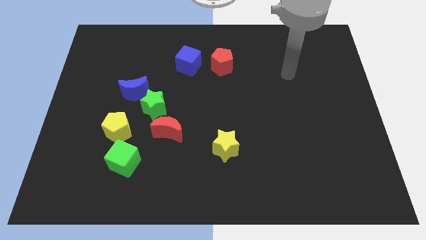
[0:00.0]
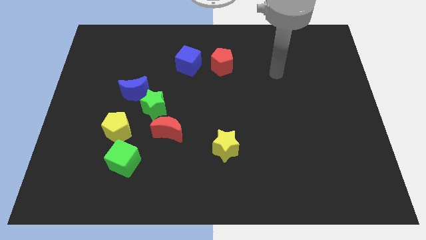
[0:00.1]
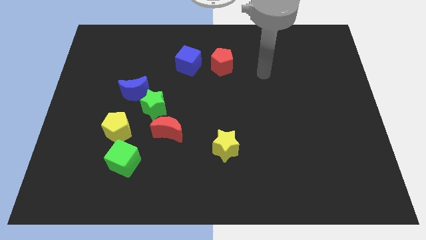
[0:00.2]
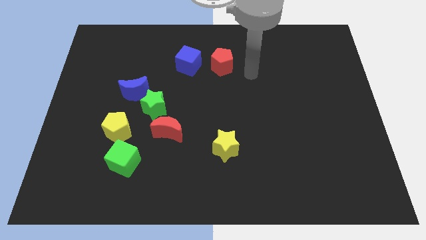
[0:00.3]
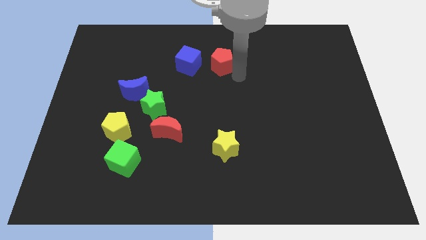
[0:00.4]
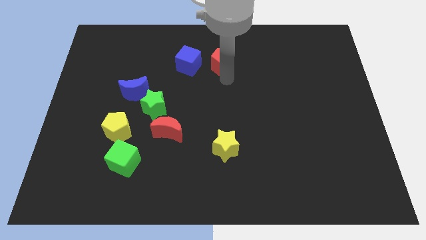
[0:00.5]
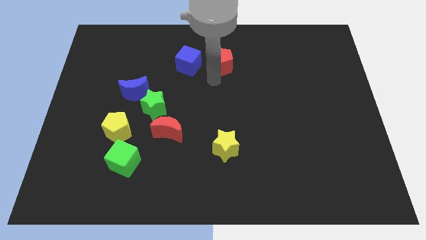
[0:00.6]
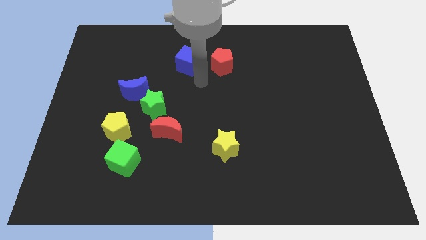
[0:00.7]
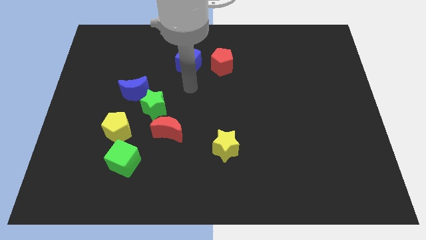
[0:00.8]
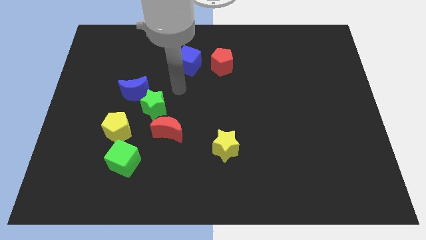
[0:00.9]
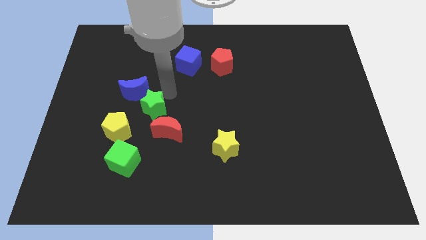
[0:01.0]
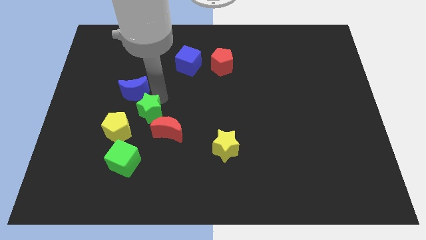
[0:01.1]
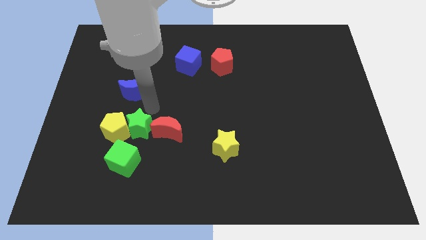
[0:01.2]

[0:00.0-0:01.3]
separate the blue moon from the green star

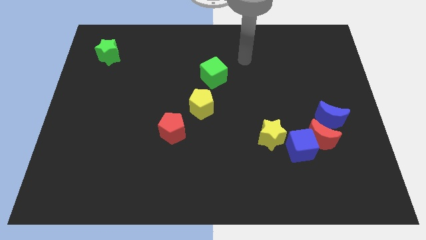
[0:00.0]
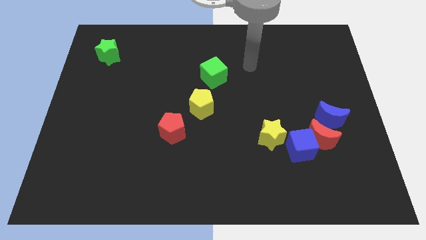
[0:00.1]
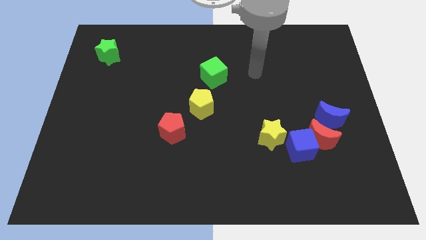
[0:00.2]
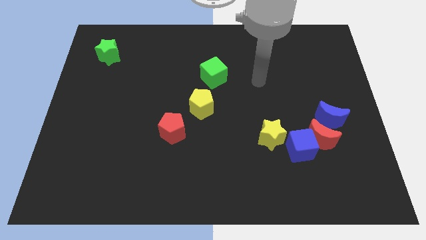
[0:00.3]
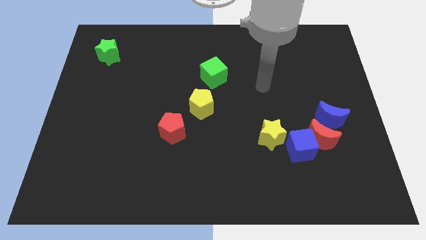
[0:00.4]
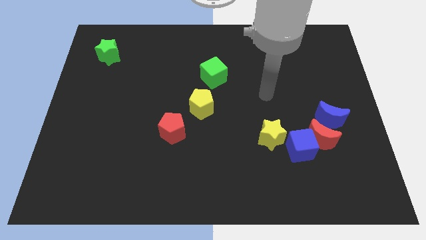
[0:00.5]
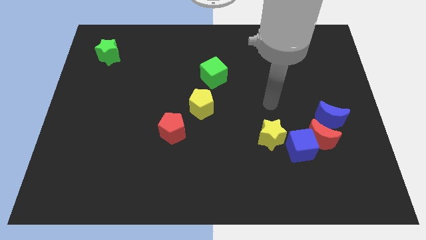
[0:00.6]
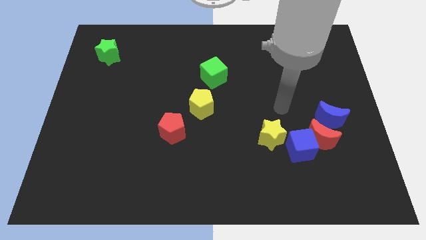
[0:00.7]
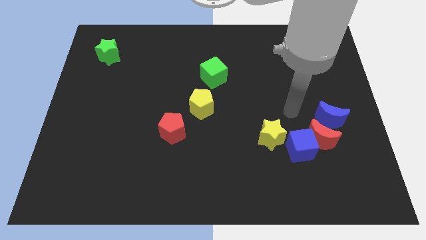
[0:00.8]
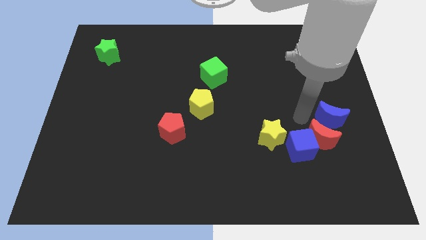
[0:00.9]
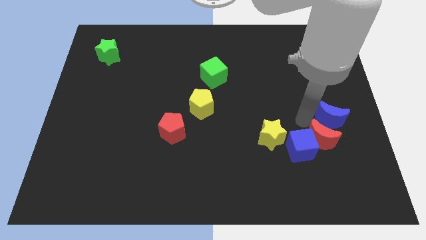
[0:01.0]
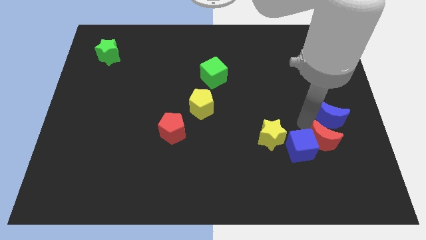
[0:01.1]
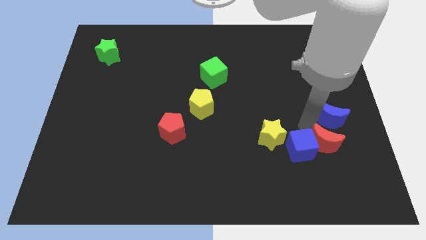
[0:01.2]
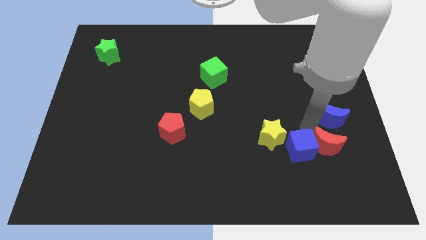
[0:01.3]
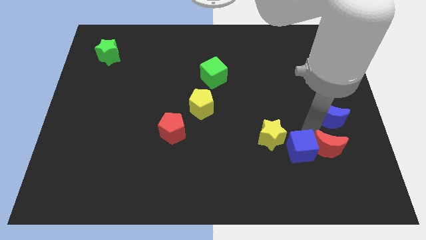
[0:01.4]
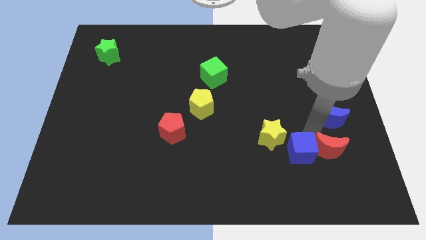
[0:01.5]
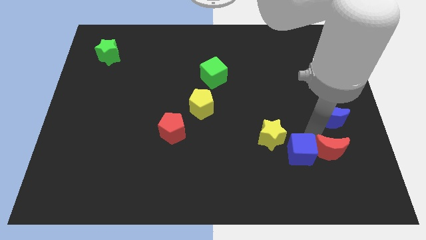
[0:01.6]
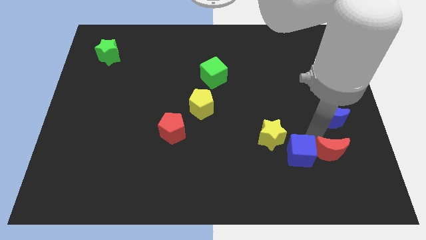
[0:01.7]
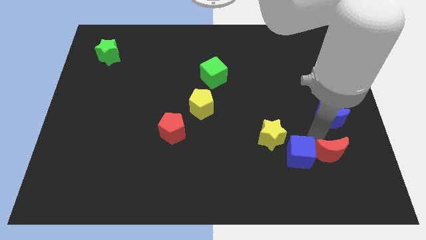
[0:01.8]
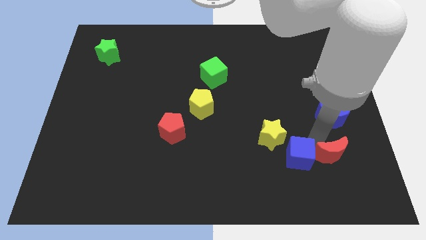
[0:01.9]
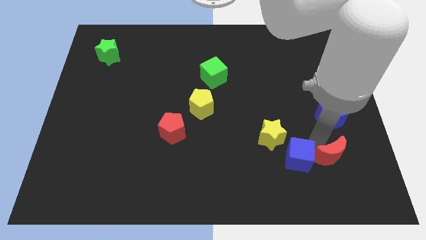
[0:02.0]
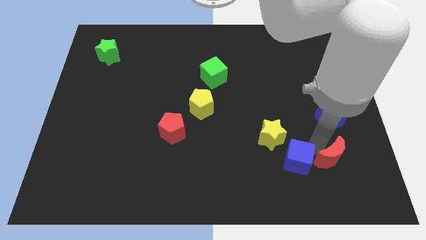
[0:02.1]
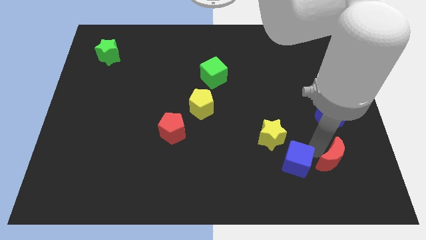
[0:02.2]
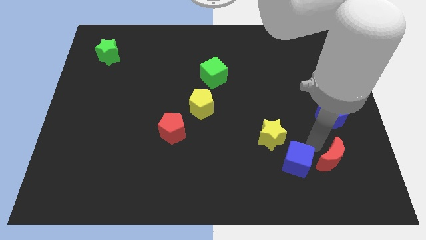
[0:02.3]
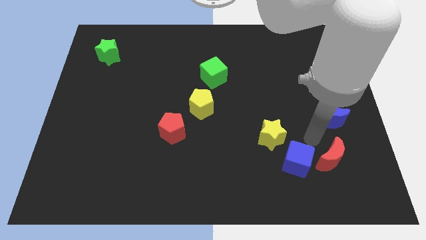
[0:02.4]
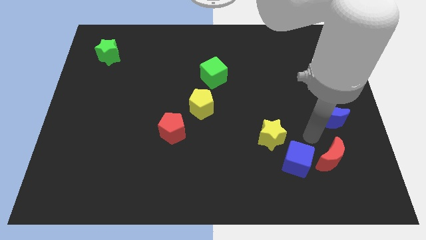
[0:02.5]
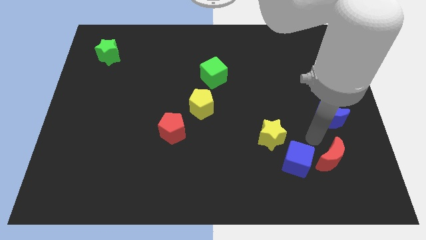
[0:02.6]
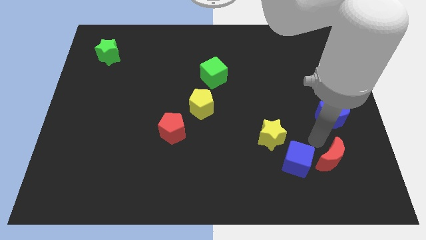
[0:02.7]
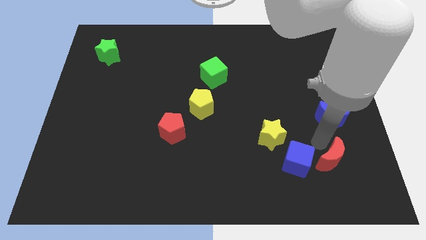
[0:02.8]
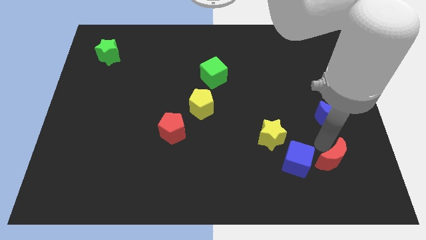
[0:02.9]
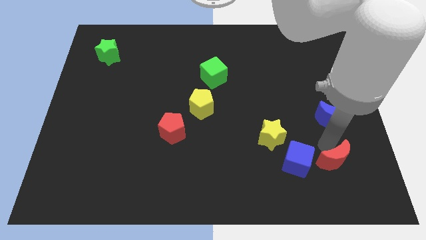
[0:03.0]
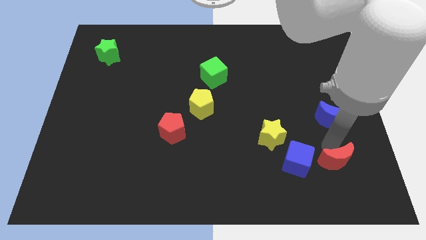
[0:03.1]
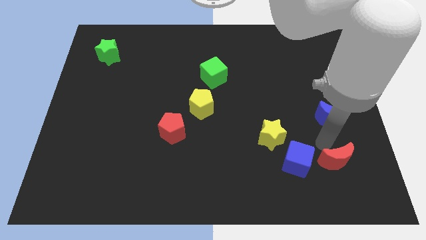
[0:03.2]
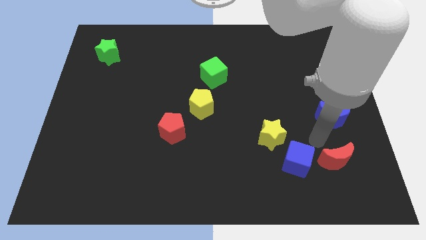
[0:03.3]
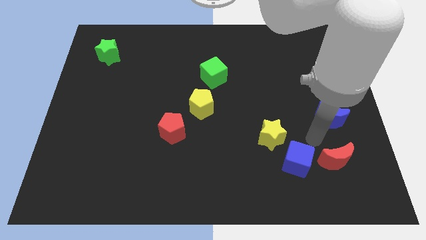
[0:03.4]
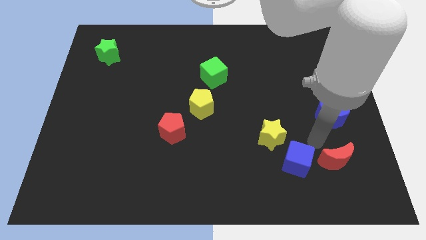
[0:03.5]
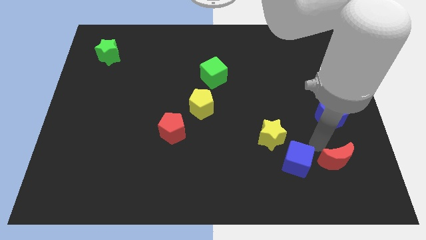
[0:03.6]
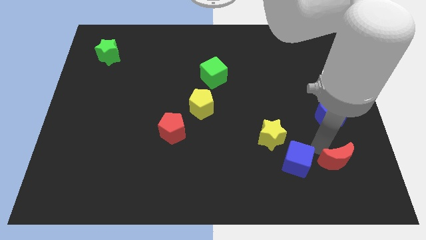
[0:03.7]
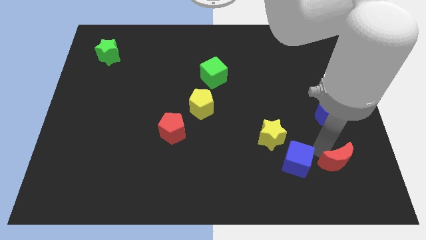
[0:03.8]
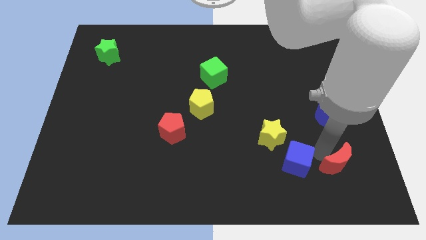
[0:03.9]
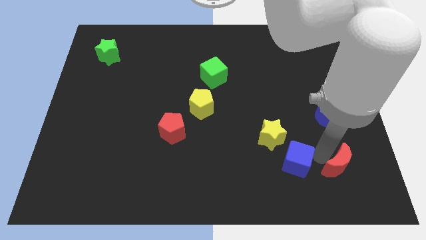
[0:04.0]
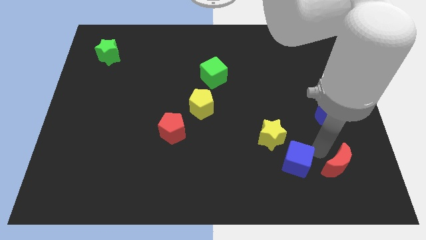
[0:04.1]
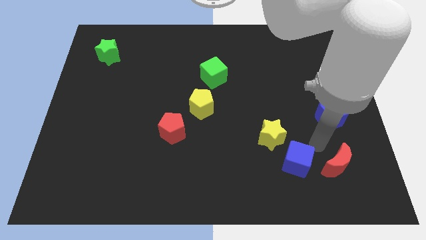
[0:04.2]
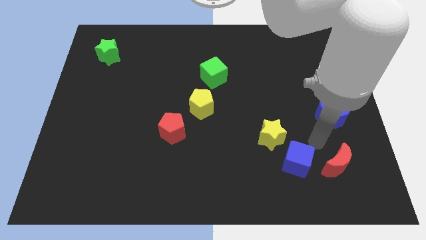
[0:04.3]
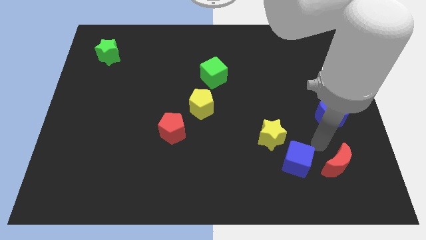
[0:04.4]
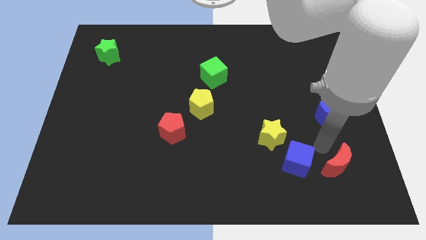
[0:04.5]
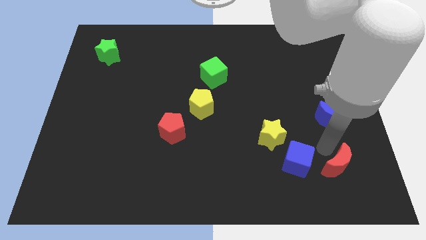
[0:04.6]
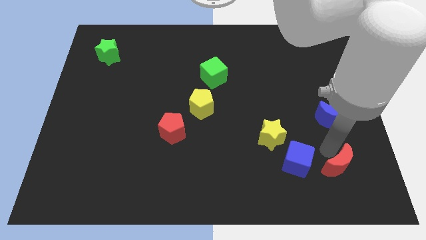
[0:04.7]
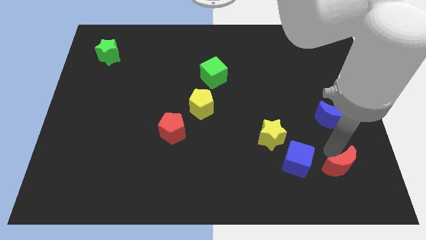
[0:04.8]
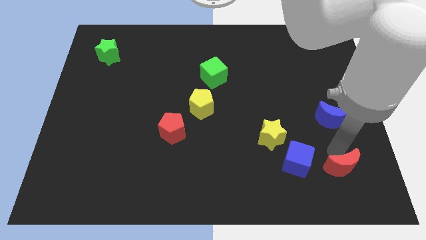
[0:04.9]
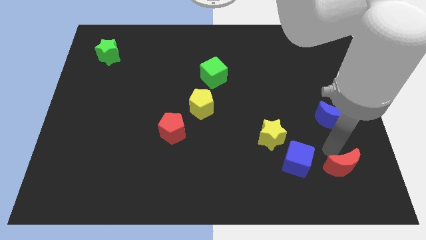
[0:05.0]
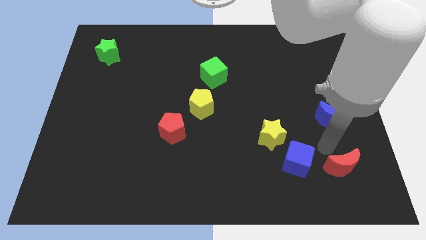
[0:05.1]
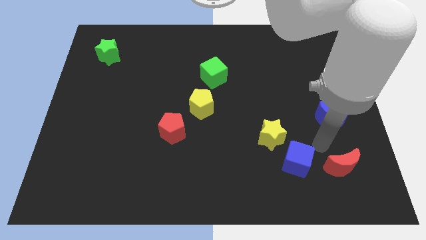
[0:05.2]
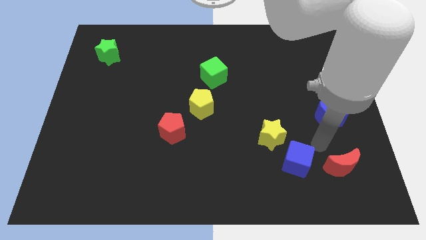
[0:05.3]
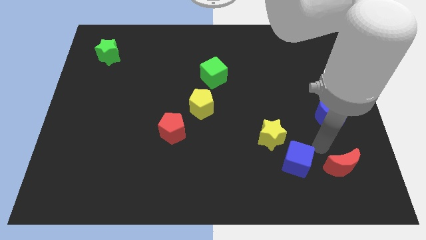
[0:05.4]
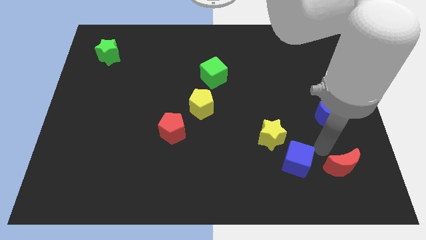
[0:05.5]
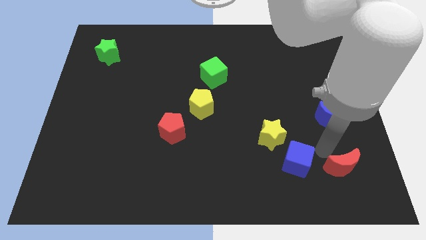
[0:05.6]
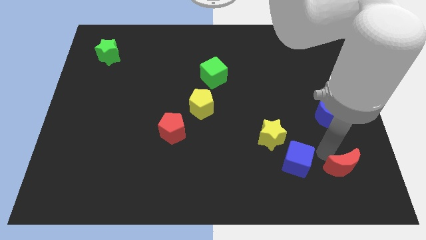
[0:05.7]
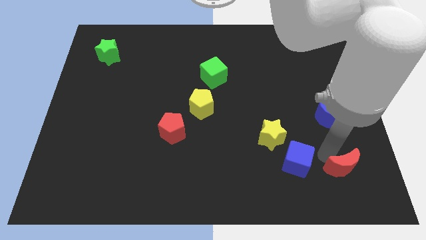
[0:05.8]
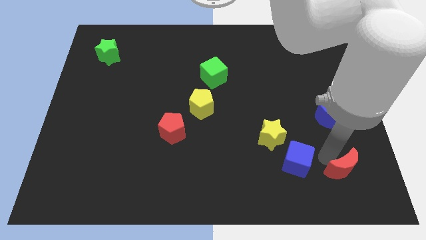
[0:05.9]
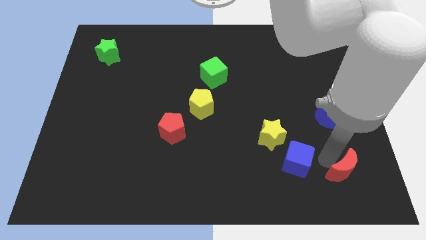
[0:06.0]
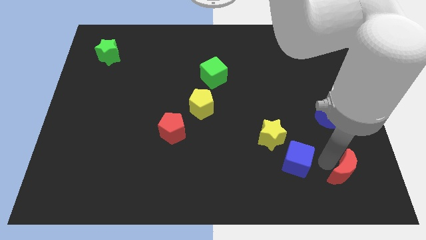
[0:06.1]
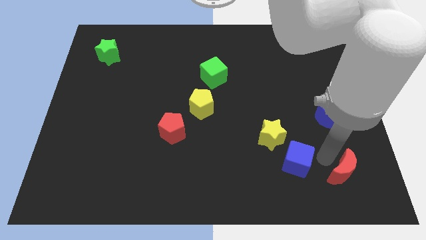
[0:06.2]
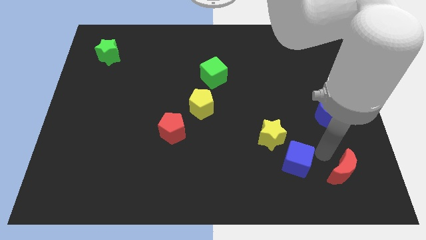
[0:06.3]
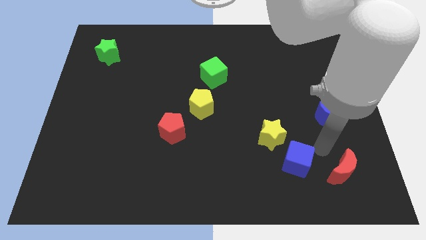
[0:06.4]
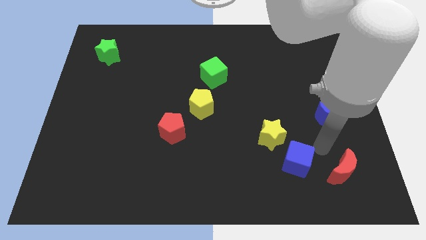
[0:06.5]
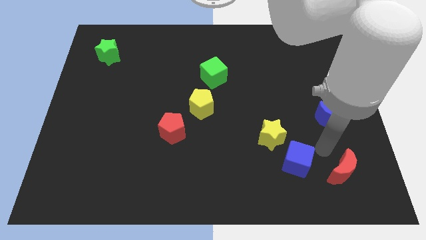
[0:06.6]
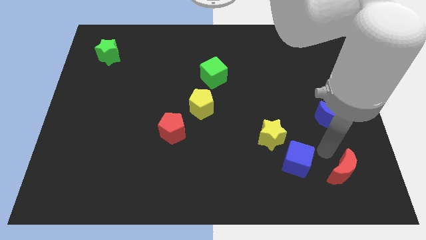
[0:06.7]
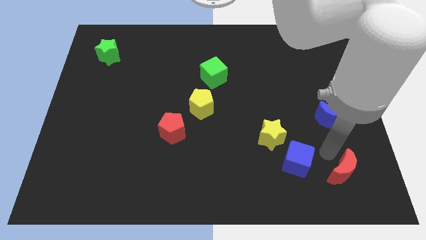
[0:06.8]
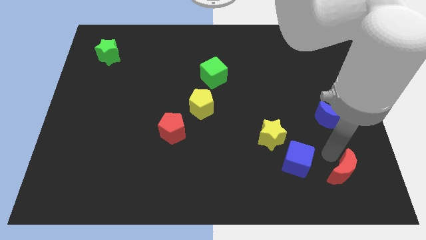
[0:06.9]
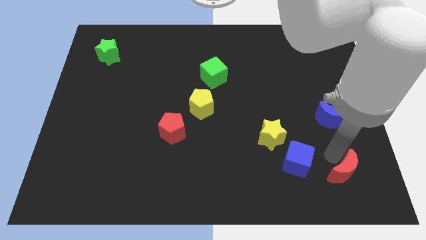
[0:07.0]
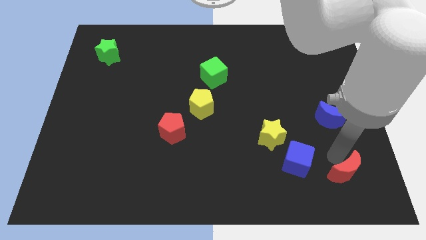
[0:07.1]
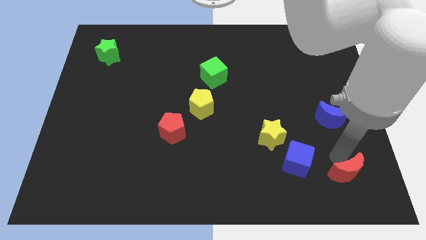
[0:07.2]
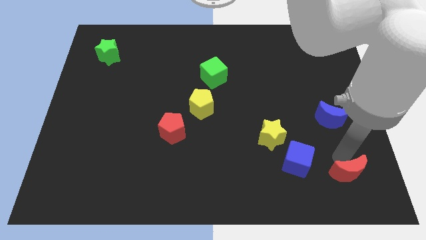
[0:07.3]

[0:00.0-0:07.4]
move the red moon away from the blue cube and blue moon

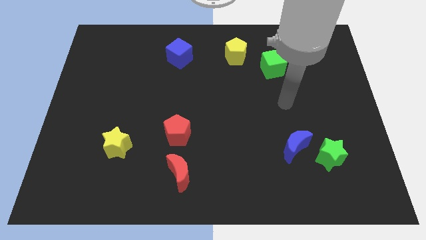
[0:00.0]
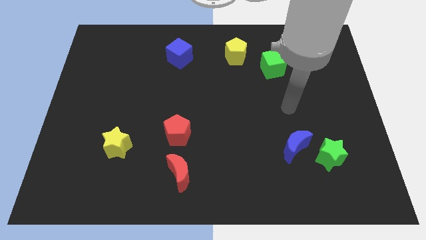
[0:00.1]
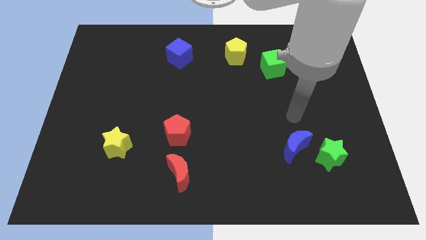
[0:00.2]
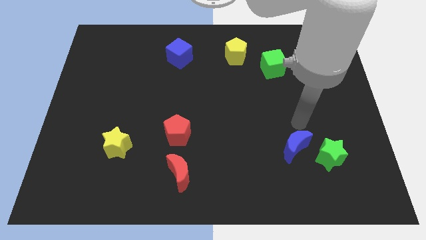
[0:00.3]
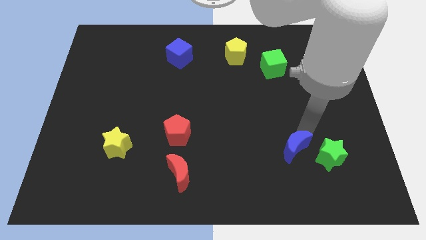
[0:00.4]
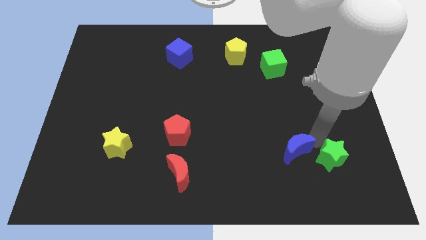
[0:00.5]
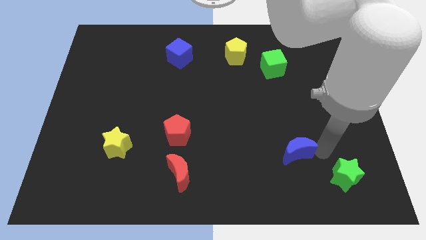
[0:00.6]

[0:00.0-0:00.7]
pull the blue moon apart from the green star
